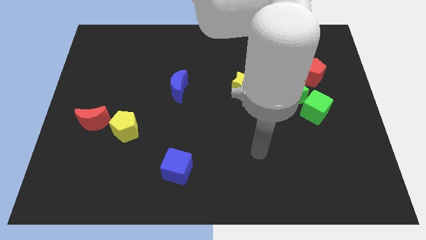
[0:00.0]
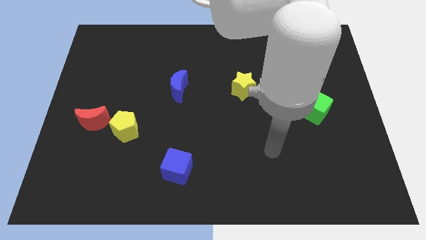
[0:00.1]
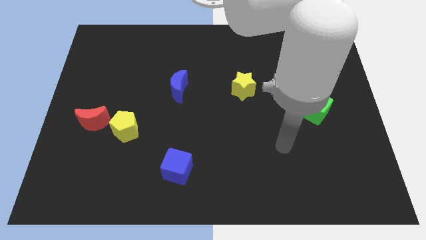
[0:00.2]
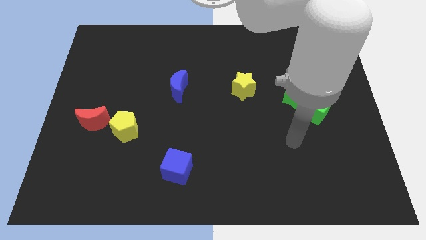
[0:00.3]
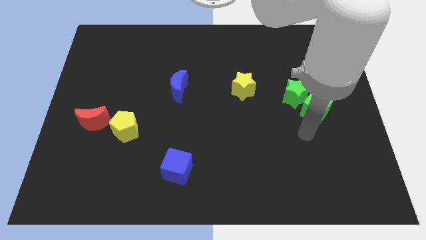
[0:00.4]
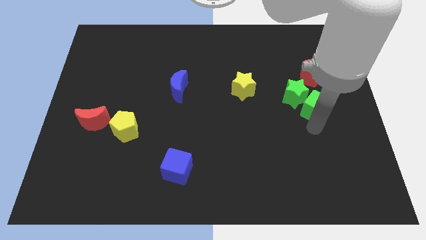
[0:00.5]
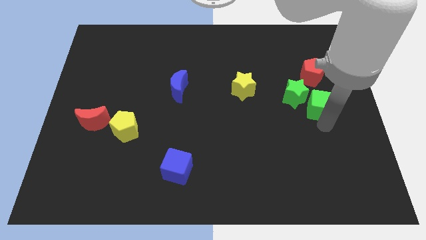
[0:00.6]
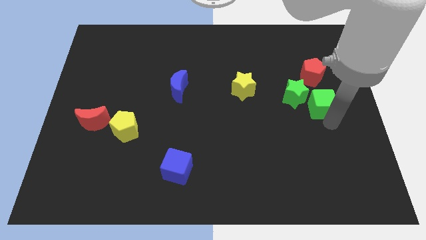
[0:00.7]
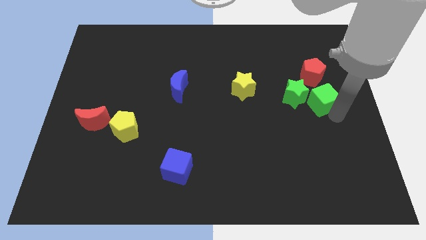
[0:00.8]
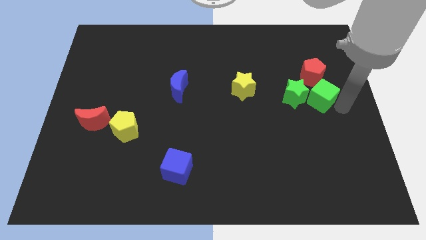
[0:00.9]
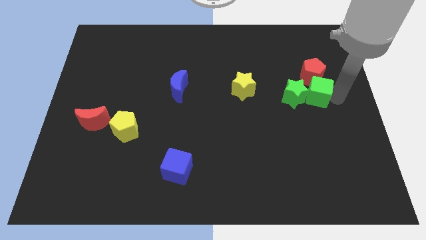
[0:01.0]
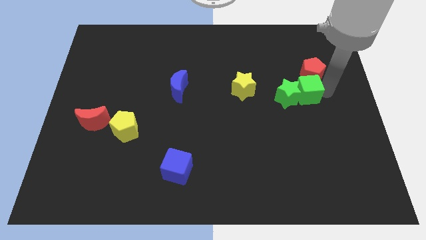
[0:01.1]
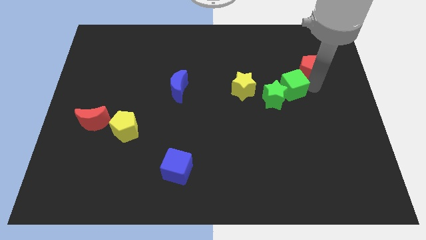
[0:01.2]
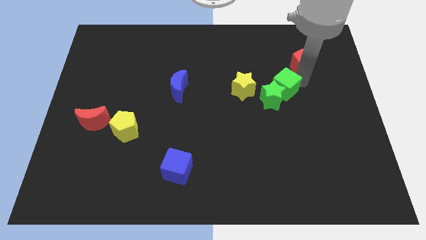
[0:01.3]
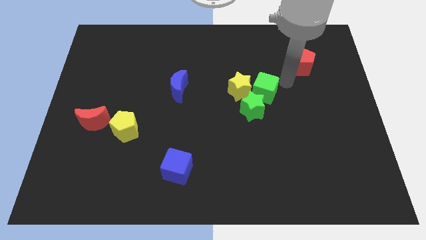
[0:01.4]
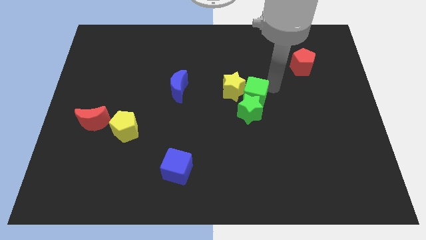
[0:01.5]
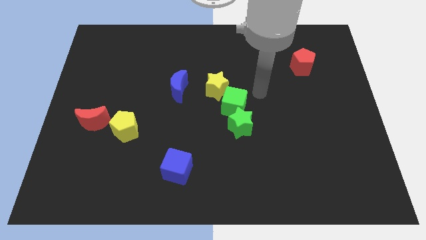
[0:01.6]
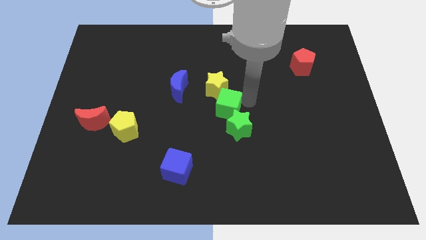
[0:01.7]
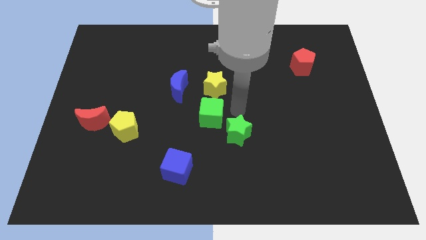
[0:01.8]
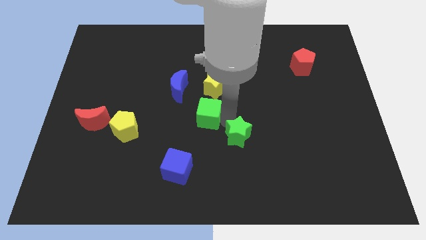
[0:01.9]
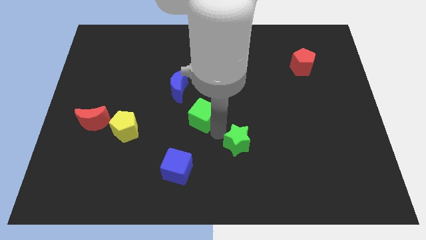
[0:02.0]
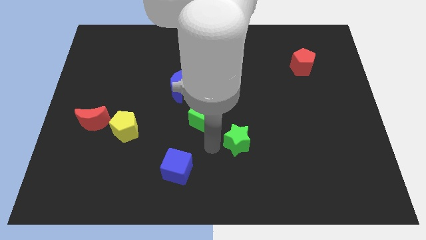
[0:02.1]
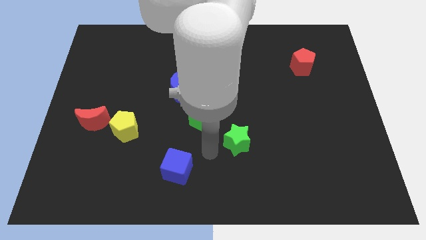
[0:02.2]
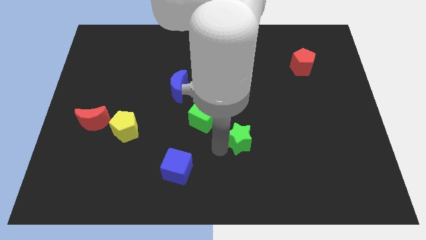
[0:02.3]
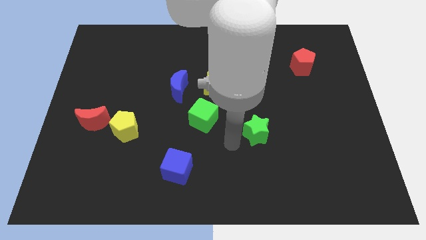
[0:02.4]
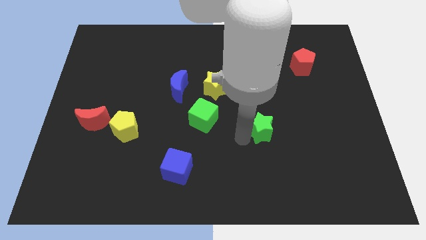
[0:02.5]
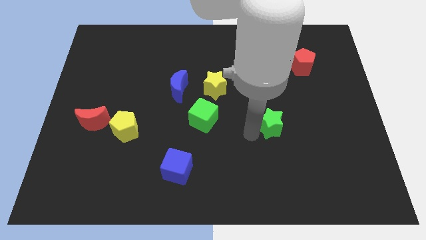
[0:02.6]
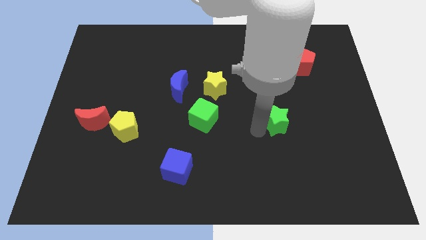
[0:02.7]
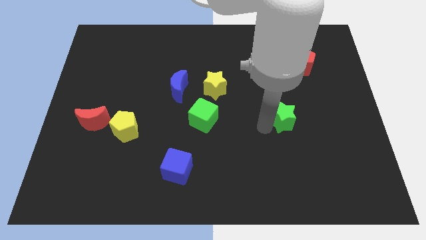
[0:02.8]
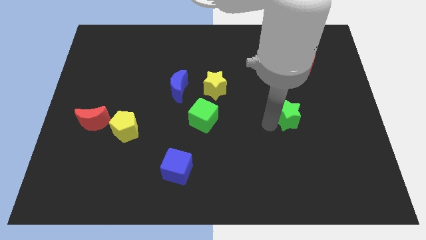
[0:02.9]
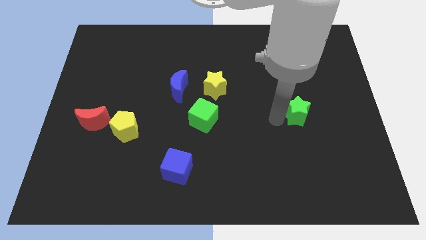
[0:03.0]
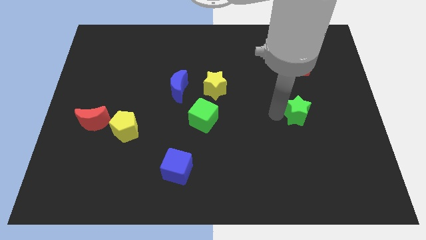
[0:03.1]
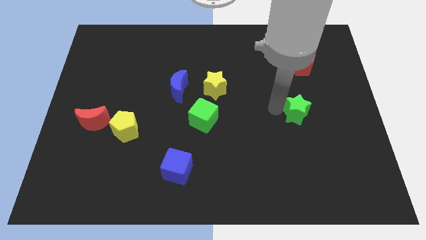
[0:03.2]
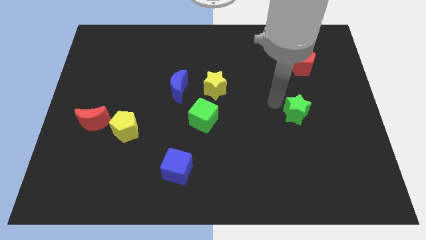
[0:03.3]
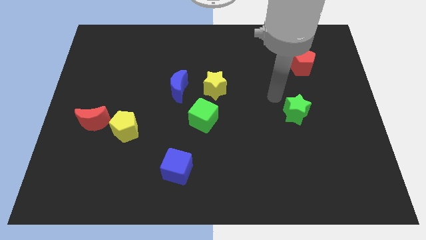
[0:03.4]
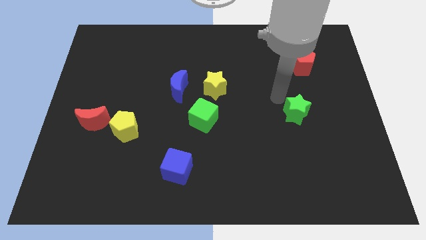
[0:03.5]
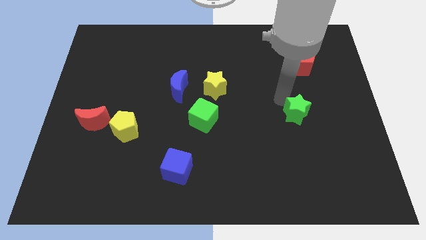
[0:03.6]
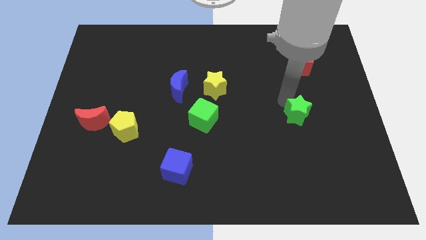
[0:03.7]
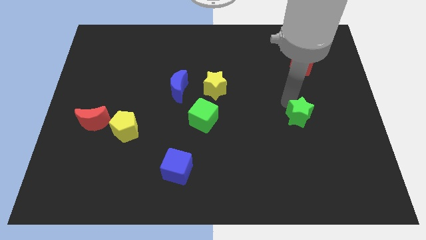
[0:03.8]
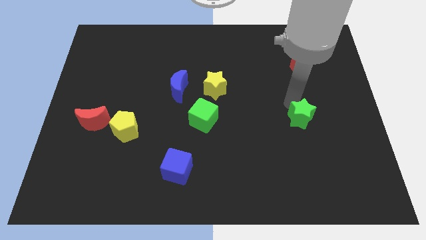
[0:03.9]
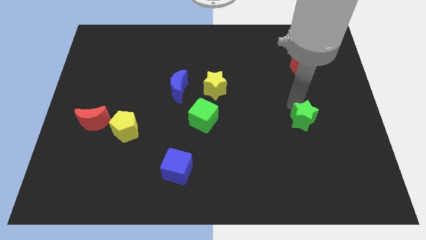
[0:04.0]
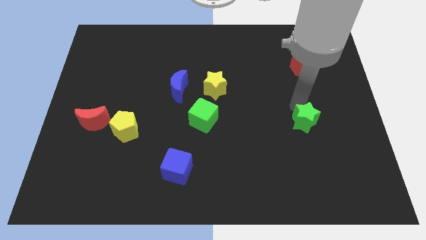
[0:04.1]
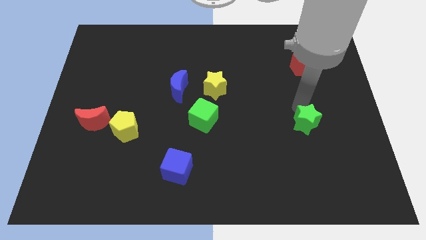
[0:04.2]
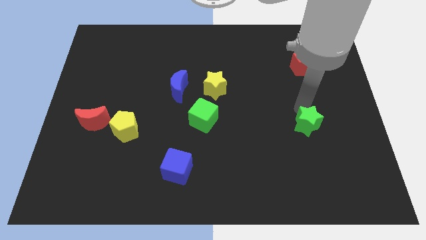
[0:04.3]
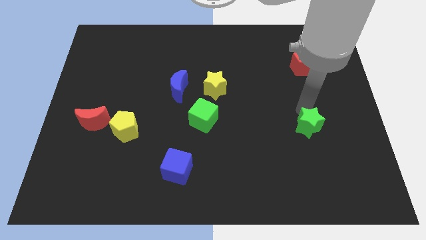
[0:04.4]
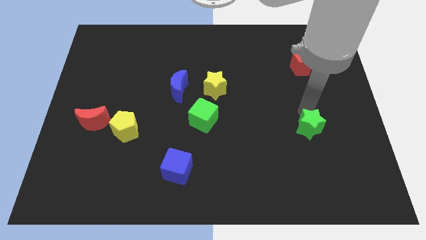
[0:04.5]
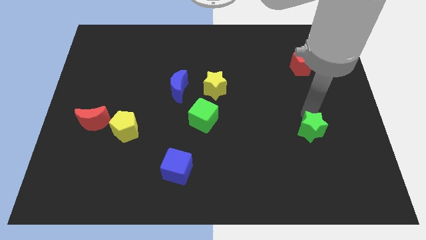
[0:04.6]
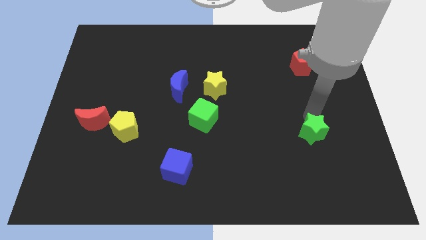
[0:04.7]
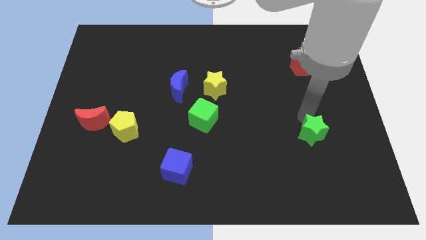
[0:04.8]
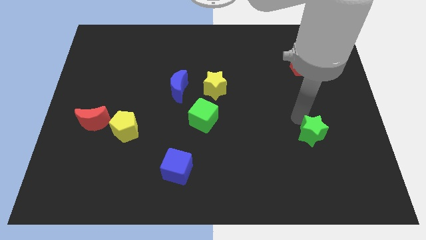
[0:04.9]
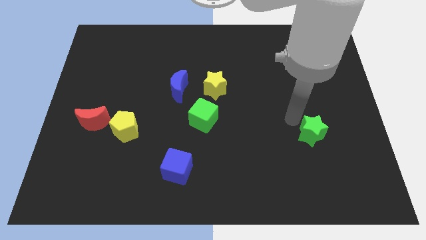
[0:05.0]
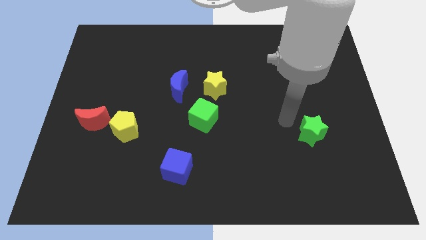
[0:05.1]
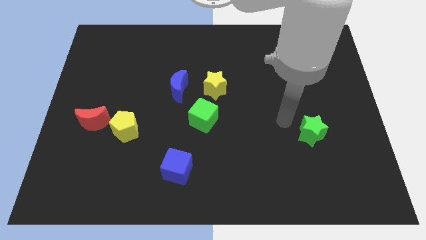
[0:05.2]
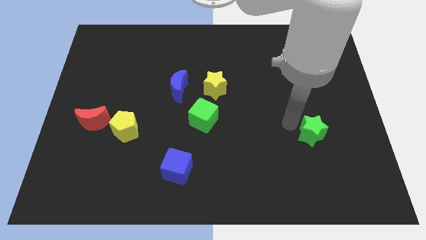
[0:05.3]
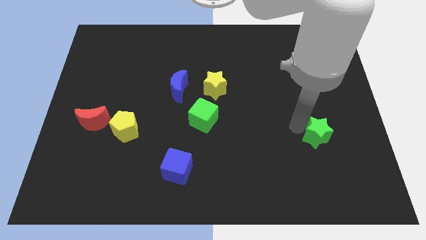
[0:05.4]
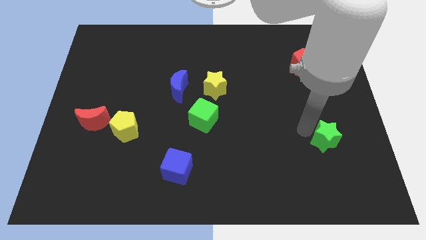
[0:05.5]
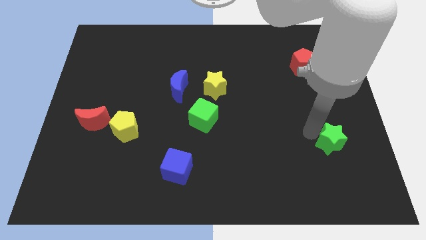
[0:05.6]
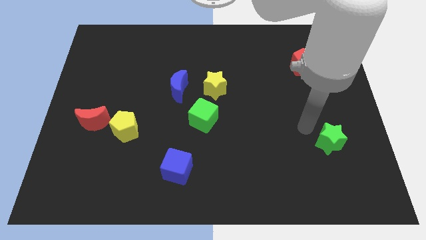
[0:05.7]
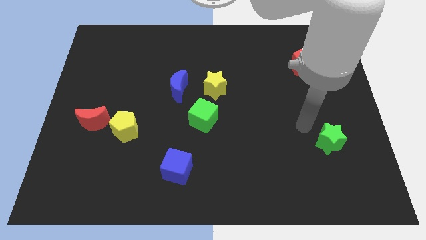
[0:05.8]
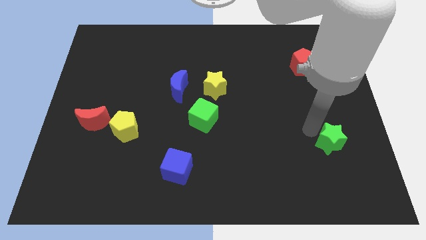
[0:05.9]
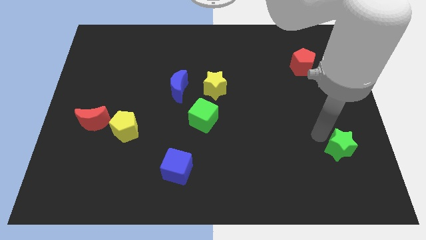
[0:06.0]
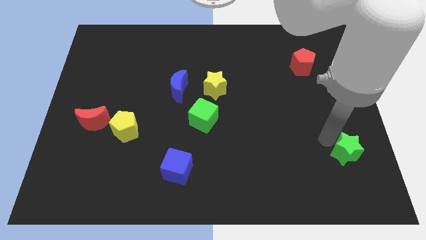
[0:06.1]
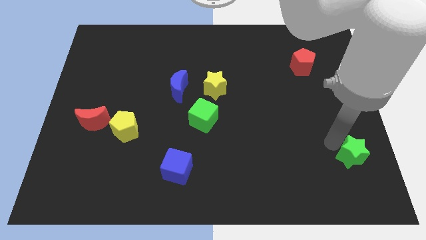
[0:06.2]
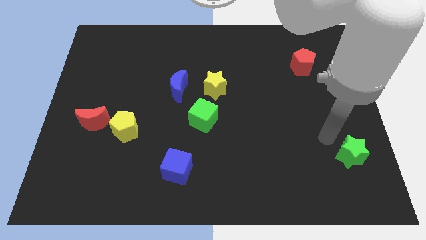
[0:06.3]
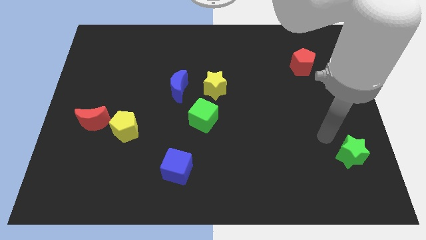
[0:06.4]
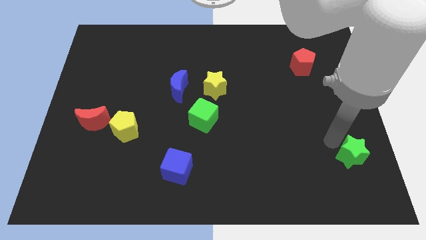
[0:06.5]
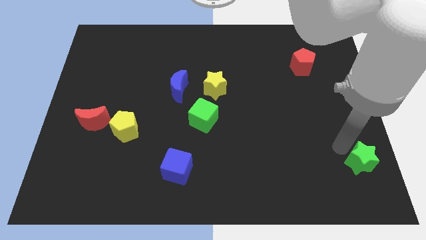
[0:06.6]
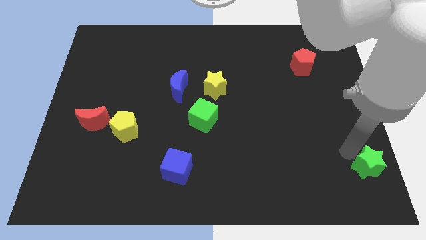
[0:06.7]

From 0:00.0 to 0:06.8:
slide the green star to the bottom right
